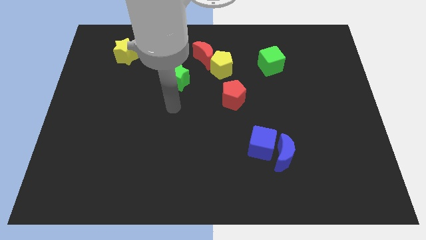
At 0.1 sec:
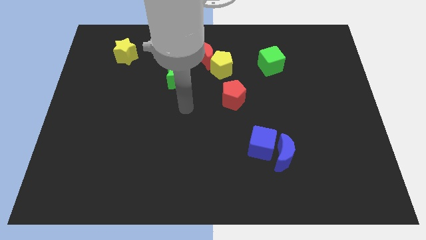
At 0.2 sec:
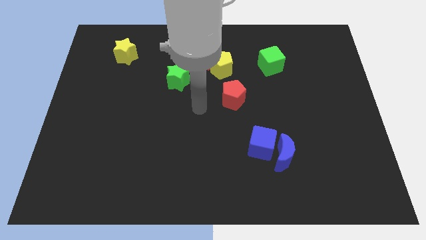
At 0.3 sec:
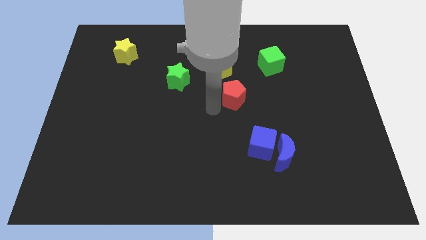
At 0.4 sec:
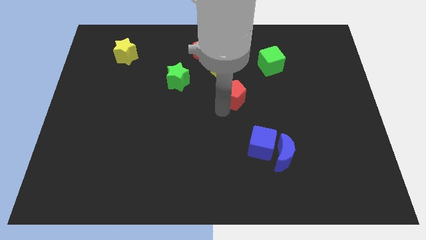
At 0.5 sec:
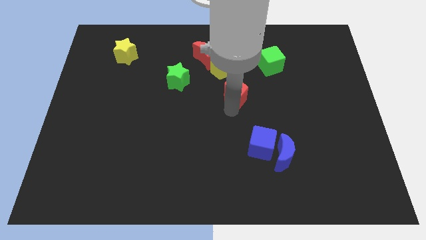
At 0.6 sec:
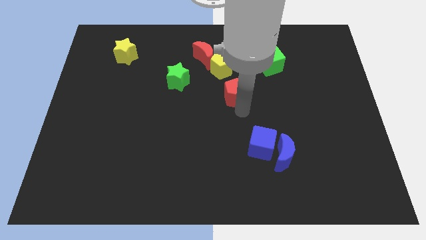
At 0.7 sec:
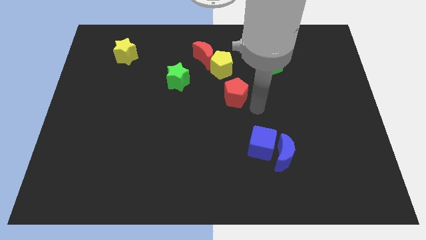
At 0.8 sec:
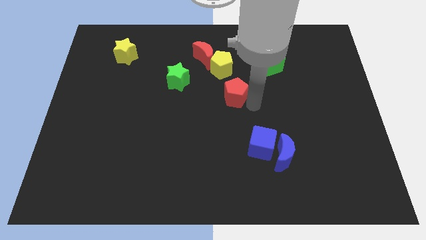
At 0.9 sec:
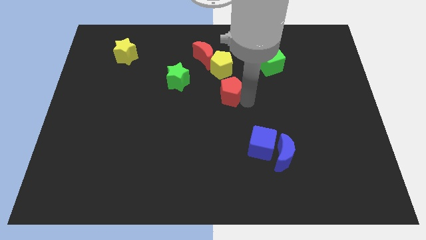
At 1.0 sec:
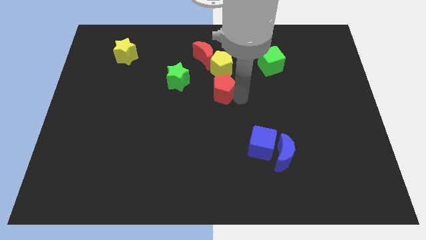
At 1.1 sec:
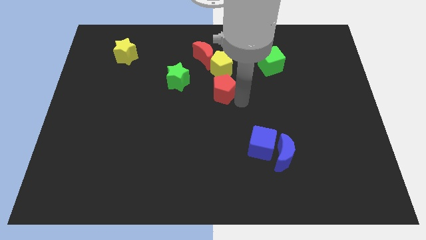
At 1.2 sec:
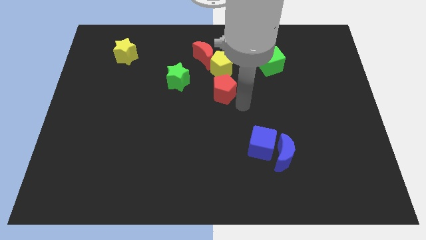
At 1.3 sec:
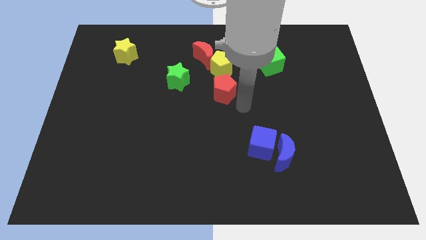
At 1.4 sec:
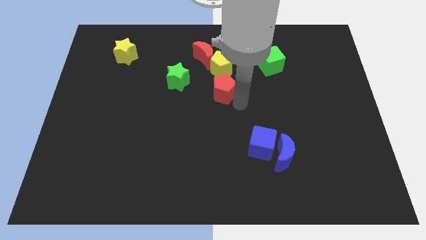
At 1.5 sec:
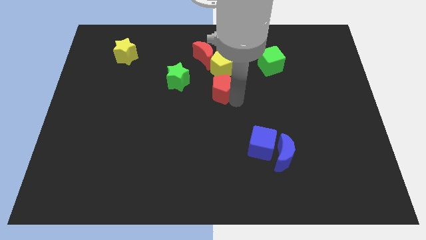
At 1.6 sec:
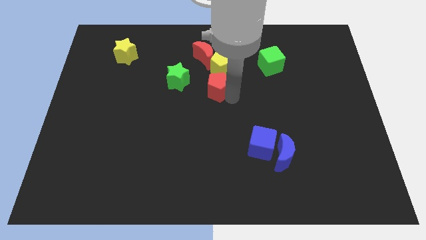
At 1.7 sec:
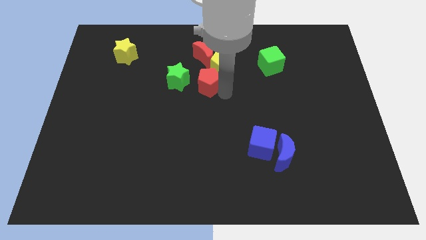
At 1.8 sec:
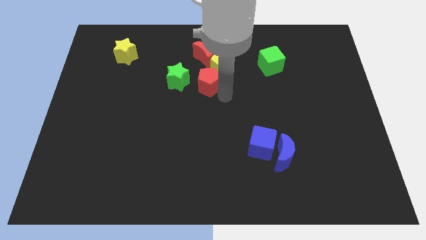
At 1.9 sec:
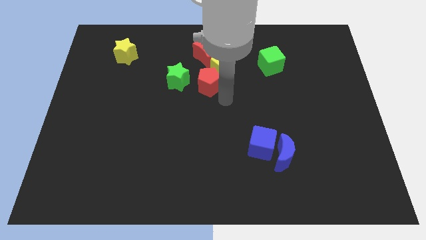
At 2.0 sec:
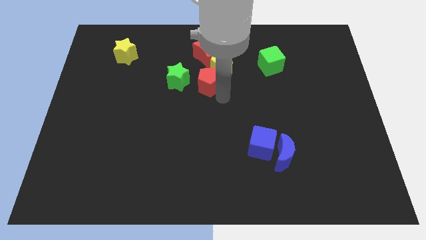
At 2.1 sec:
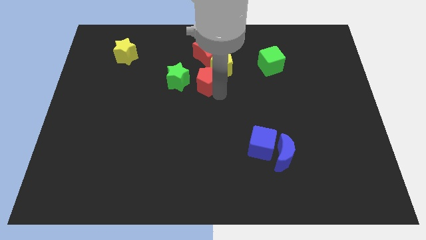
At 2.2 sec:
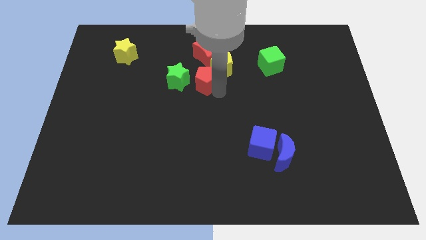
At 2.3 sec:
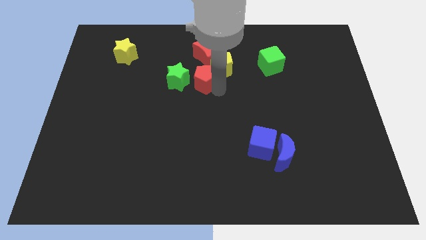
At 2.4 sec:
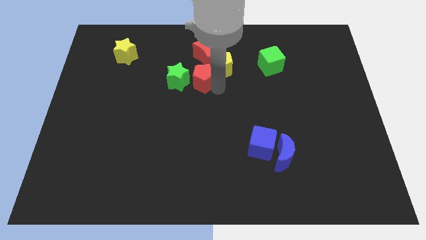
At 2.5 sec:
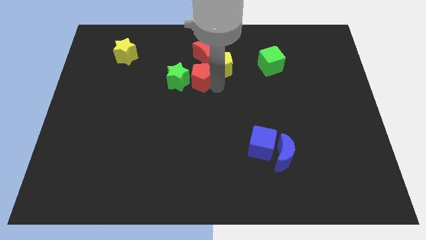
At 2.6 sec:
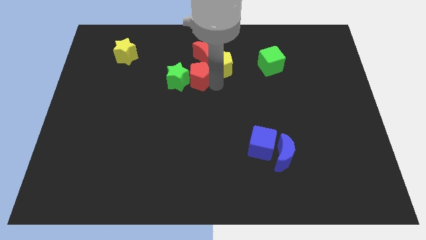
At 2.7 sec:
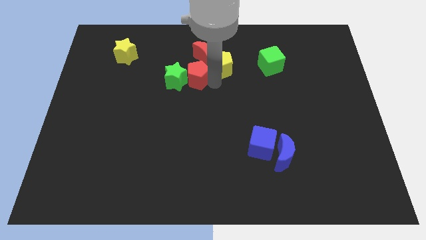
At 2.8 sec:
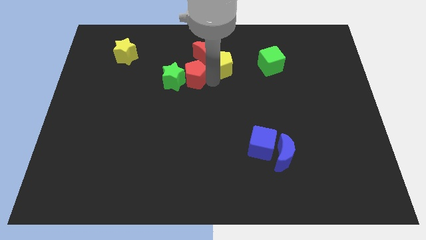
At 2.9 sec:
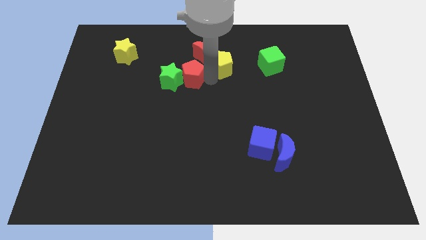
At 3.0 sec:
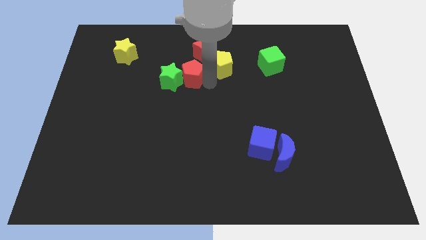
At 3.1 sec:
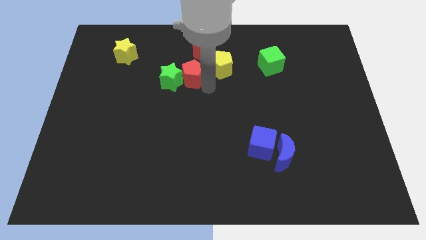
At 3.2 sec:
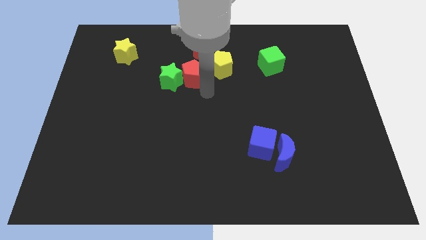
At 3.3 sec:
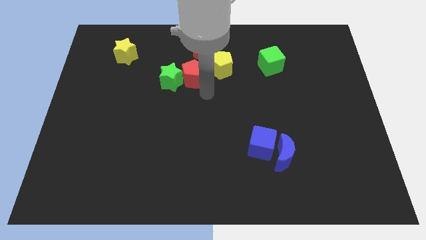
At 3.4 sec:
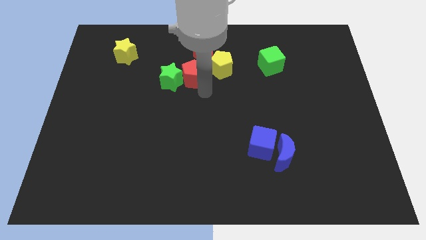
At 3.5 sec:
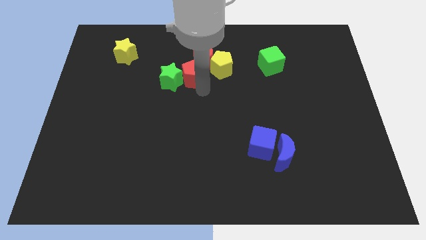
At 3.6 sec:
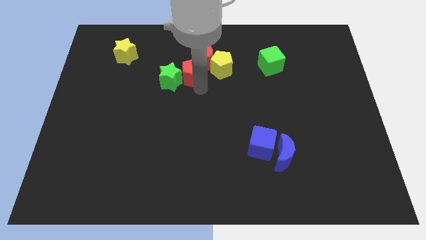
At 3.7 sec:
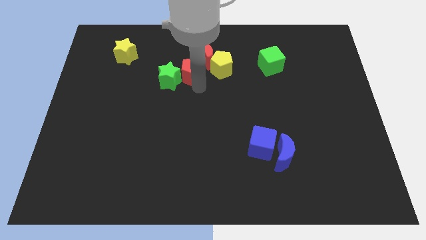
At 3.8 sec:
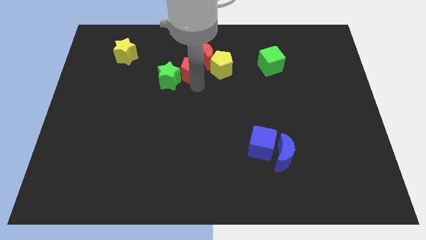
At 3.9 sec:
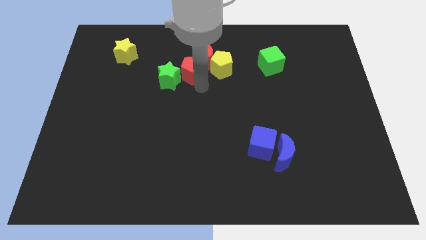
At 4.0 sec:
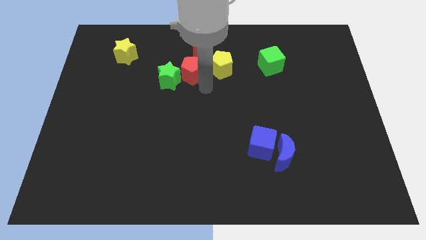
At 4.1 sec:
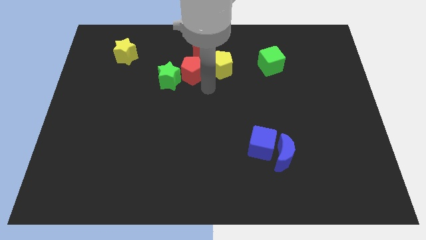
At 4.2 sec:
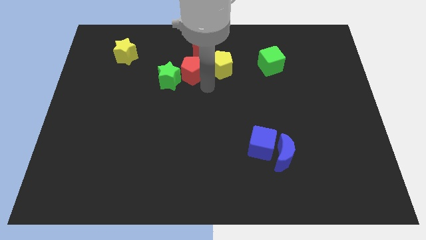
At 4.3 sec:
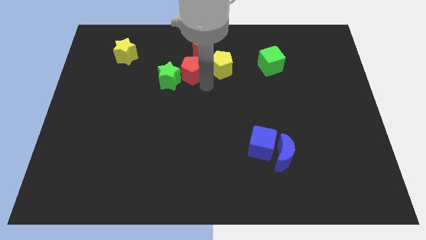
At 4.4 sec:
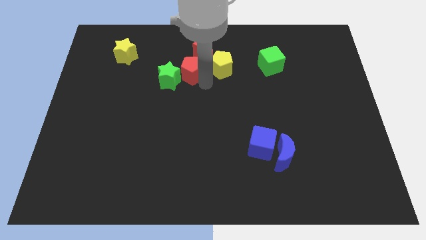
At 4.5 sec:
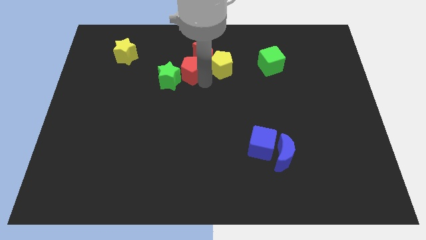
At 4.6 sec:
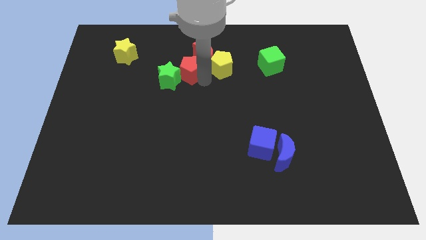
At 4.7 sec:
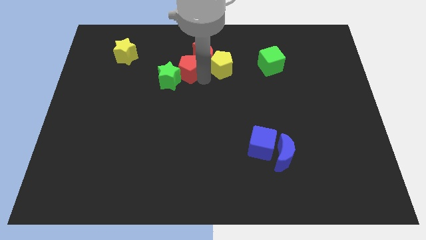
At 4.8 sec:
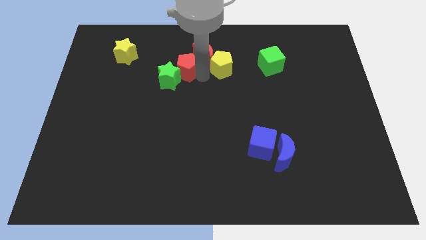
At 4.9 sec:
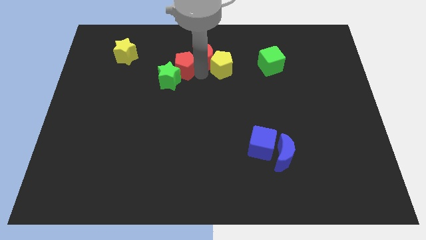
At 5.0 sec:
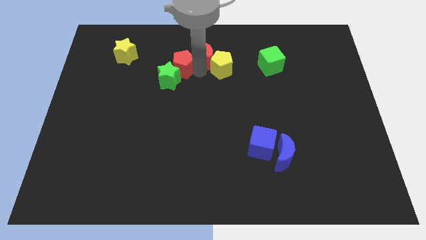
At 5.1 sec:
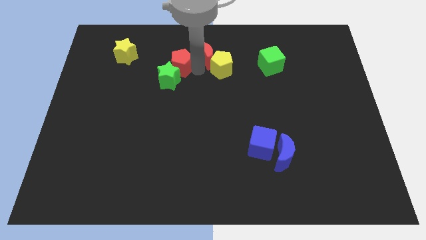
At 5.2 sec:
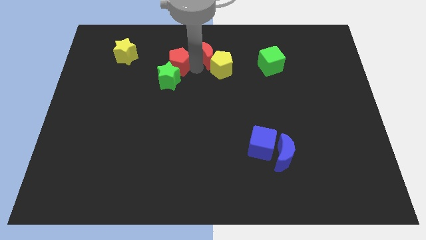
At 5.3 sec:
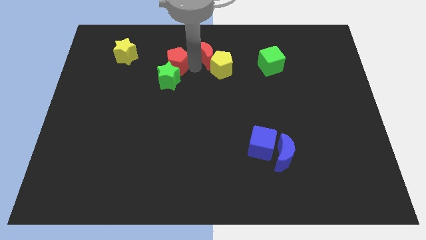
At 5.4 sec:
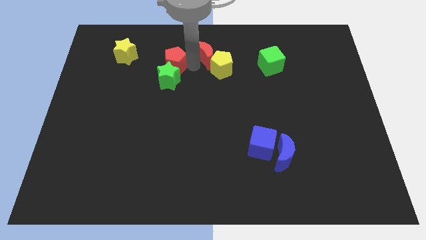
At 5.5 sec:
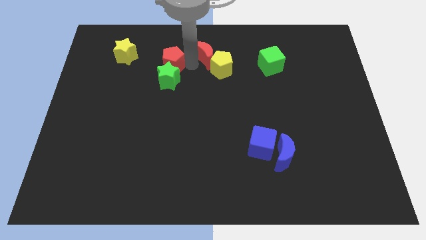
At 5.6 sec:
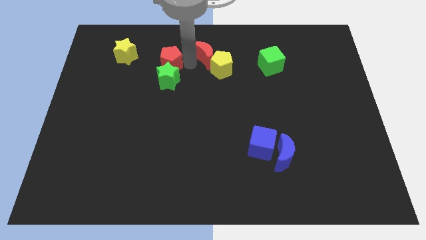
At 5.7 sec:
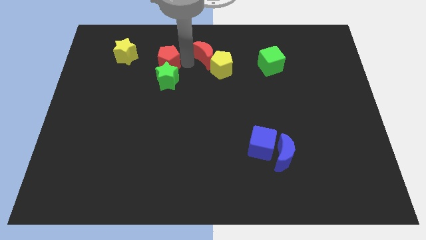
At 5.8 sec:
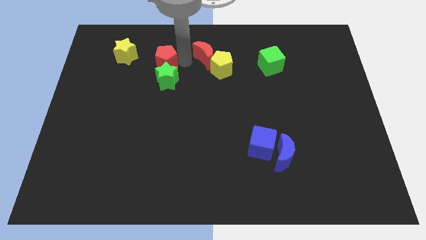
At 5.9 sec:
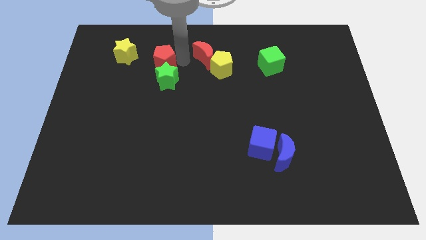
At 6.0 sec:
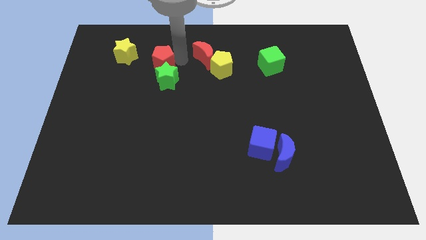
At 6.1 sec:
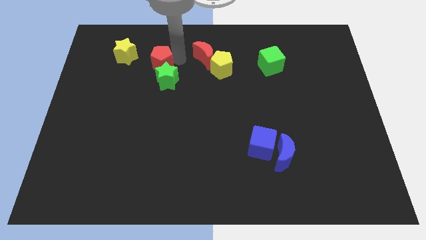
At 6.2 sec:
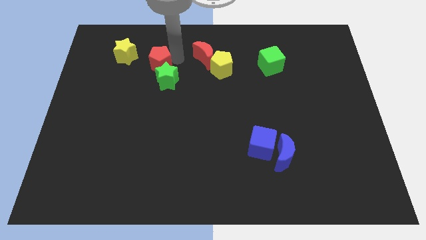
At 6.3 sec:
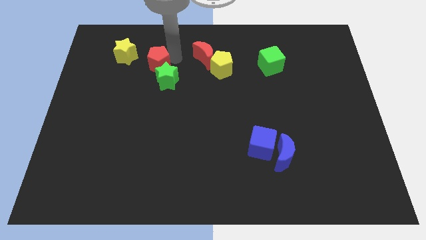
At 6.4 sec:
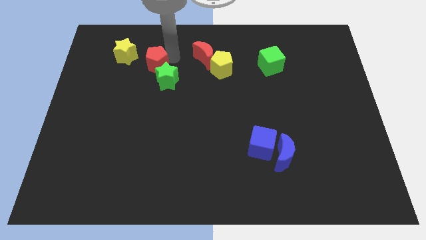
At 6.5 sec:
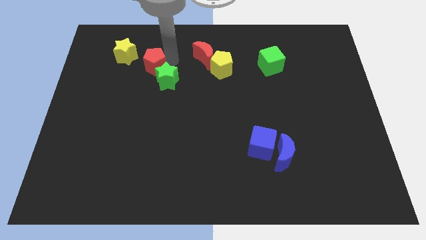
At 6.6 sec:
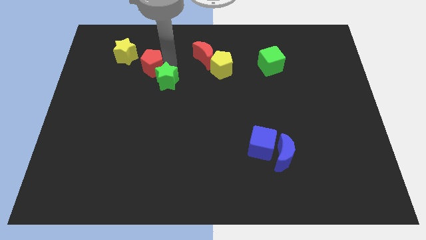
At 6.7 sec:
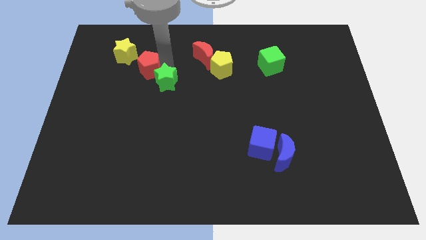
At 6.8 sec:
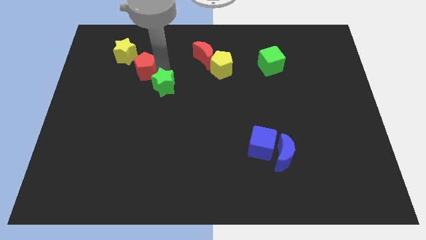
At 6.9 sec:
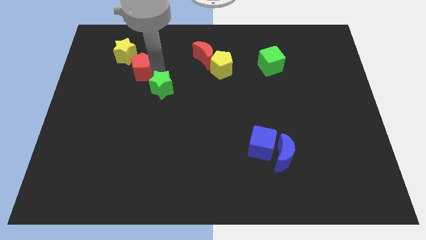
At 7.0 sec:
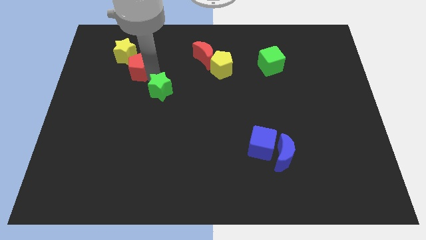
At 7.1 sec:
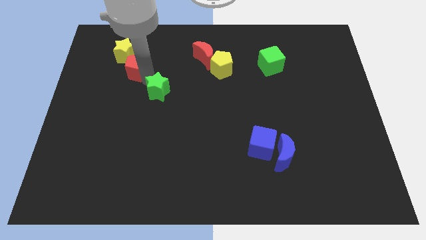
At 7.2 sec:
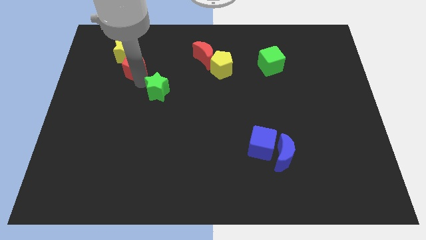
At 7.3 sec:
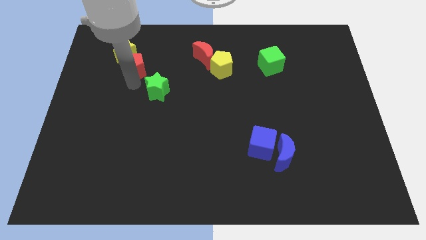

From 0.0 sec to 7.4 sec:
move the red pentagon close to the yellow star

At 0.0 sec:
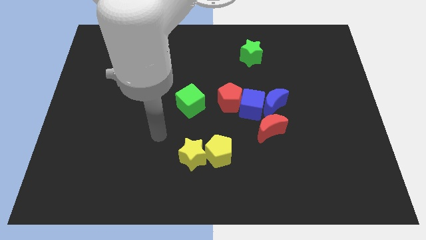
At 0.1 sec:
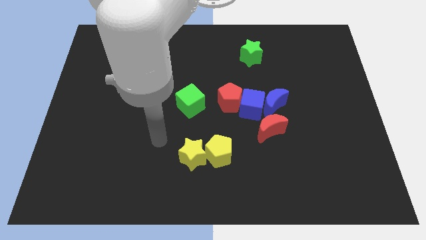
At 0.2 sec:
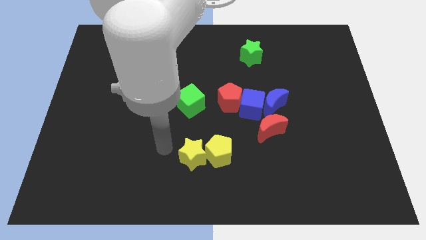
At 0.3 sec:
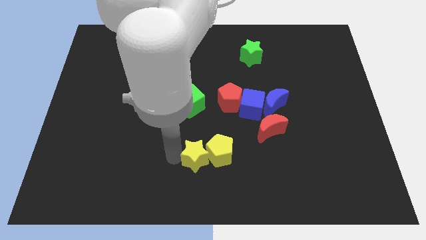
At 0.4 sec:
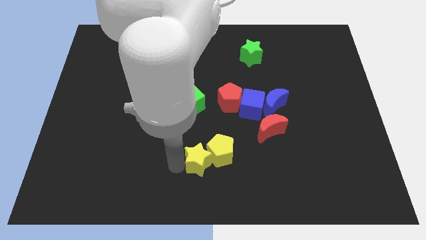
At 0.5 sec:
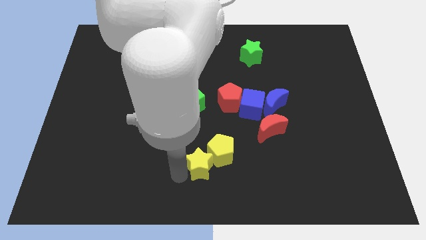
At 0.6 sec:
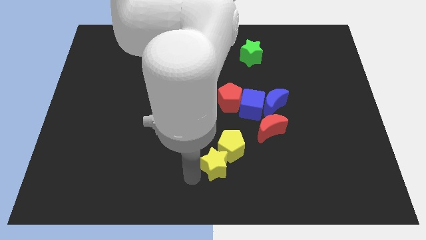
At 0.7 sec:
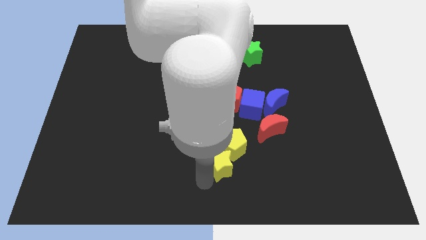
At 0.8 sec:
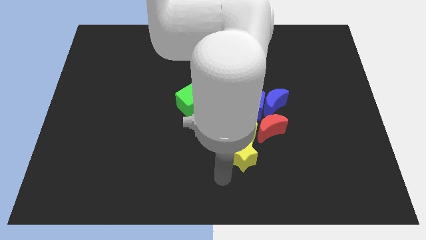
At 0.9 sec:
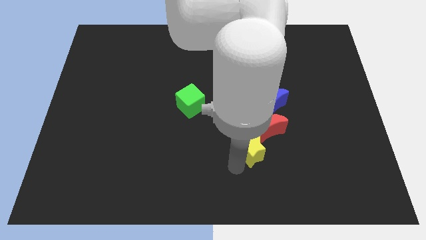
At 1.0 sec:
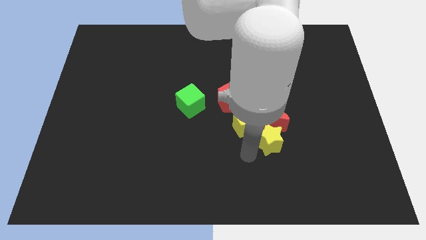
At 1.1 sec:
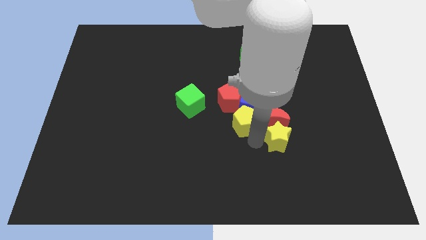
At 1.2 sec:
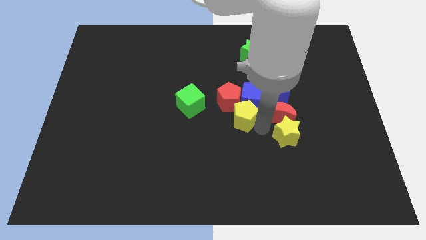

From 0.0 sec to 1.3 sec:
move the yellow pentagon to the red pentagon
